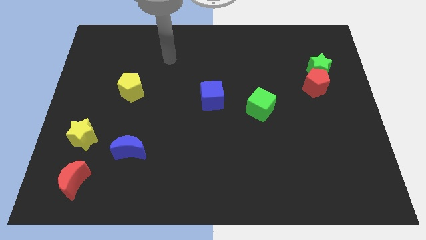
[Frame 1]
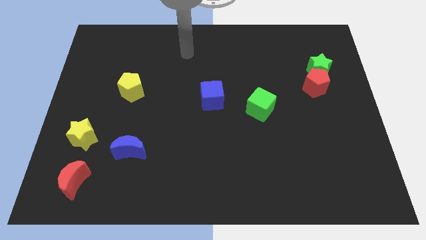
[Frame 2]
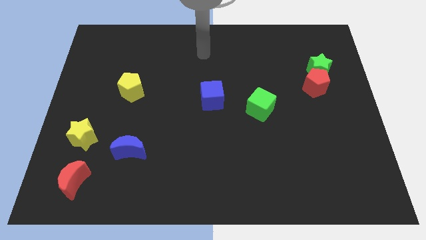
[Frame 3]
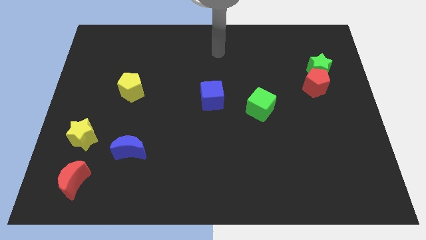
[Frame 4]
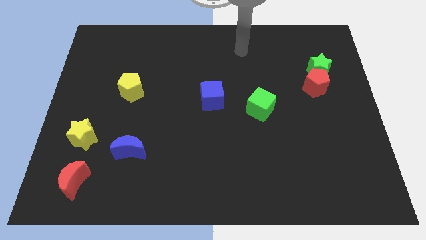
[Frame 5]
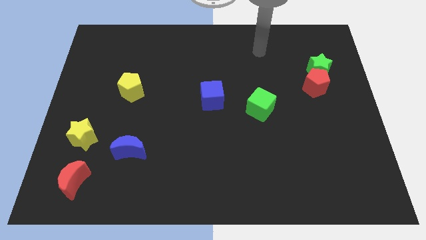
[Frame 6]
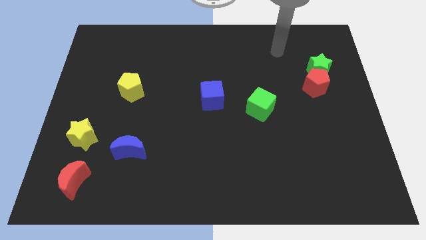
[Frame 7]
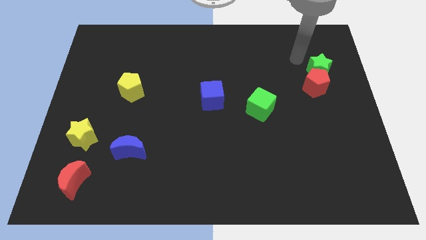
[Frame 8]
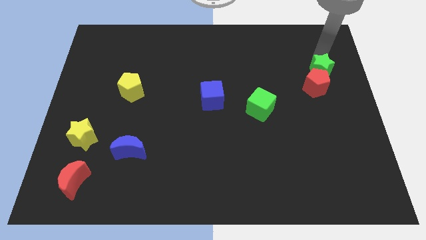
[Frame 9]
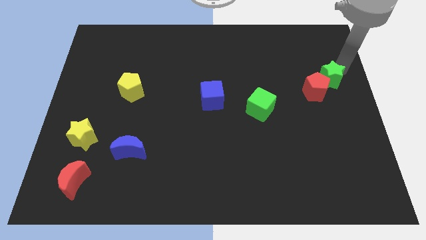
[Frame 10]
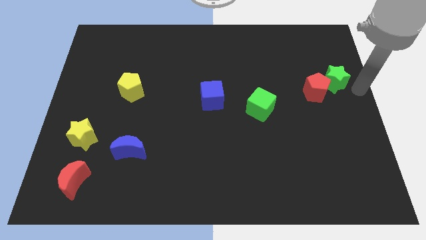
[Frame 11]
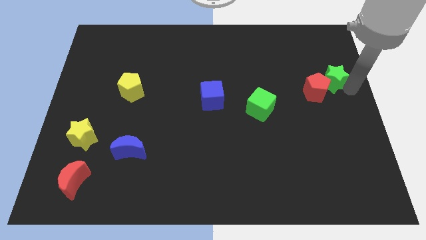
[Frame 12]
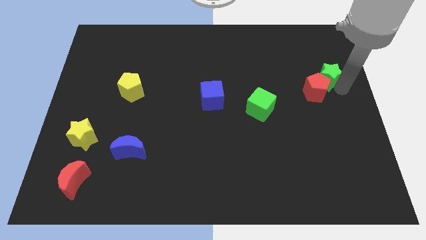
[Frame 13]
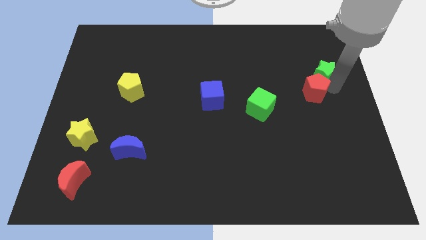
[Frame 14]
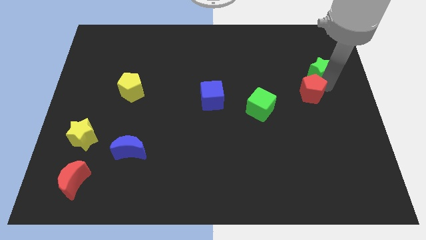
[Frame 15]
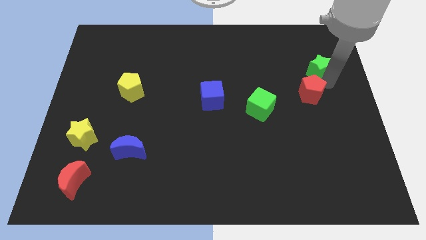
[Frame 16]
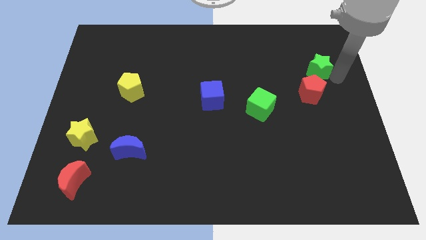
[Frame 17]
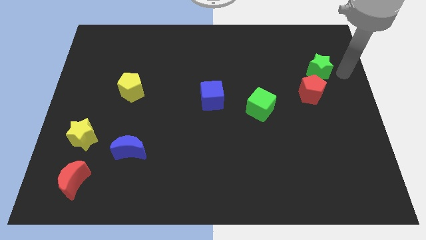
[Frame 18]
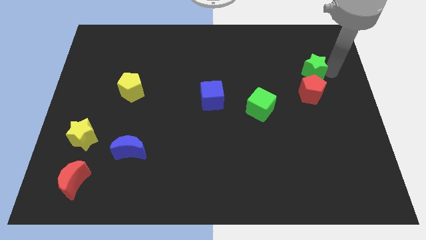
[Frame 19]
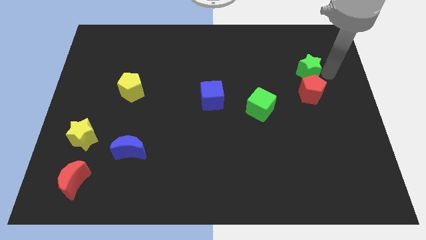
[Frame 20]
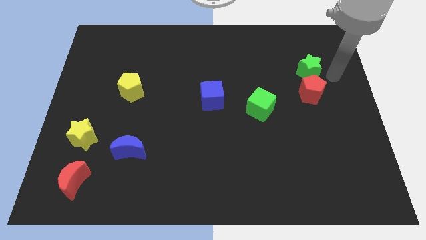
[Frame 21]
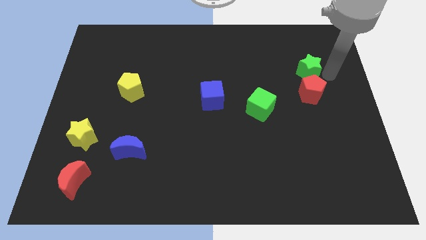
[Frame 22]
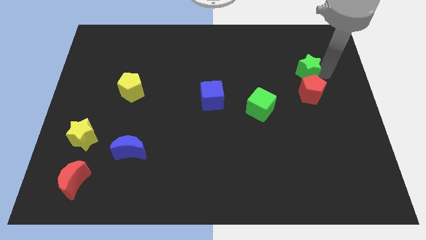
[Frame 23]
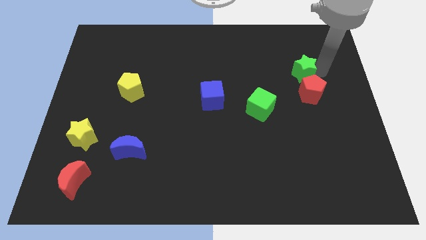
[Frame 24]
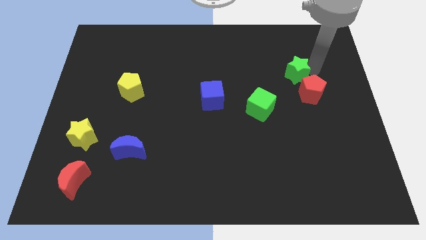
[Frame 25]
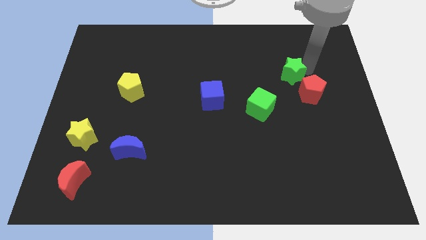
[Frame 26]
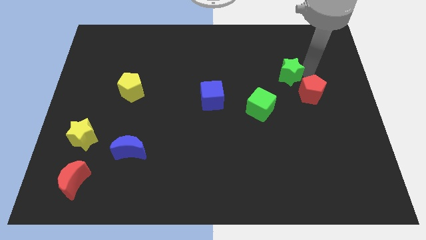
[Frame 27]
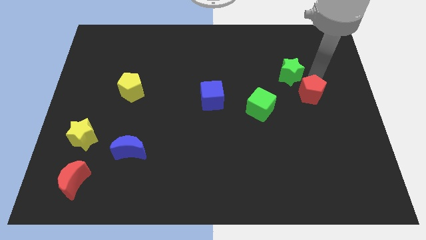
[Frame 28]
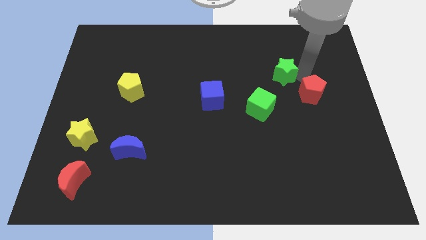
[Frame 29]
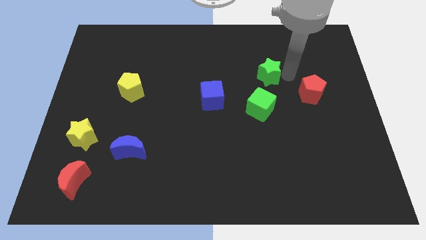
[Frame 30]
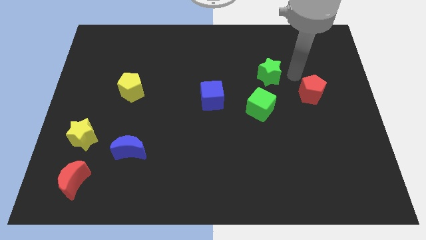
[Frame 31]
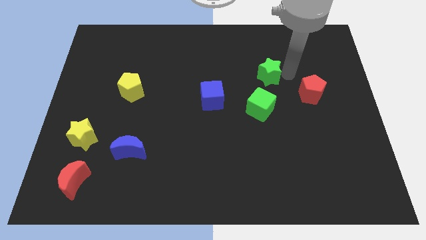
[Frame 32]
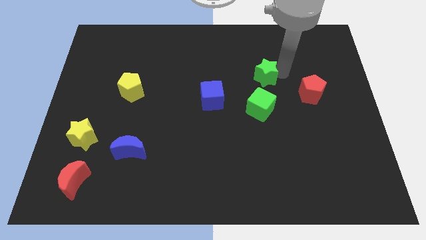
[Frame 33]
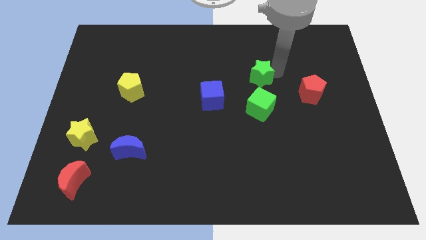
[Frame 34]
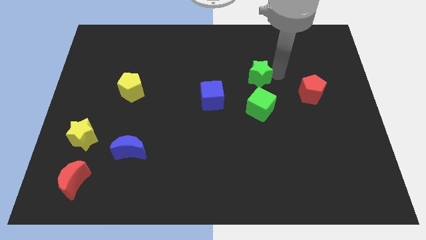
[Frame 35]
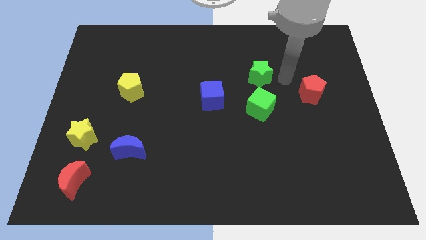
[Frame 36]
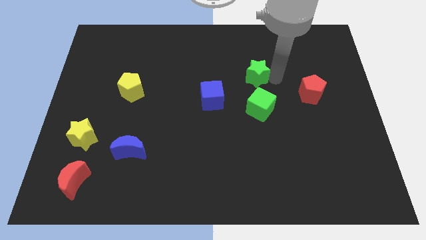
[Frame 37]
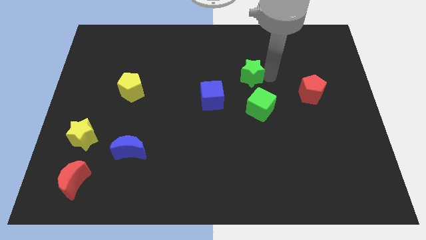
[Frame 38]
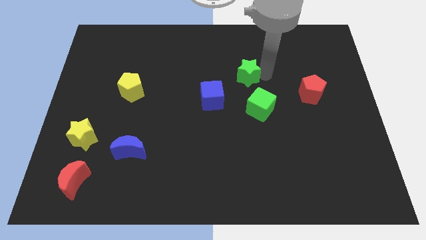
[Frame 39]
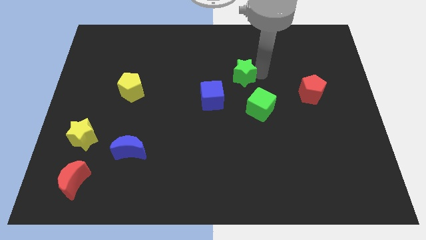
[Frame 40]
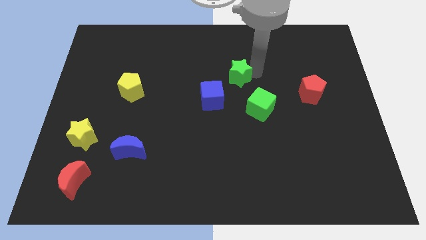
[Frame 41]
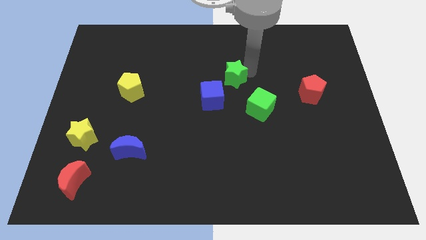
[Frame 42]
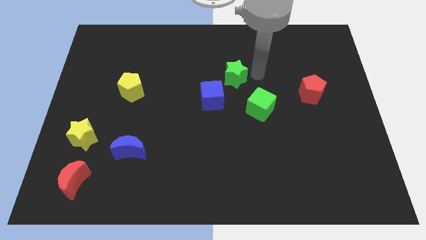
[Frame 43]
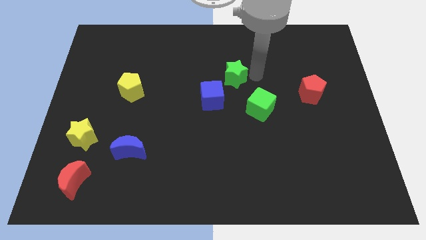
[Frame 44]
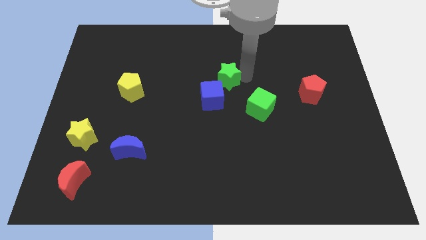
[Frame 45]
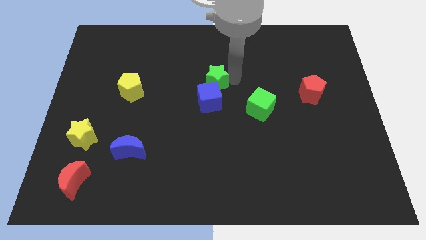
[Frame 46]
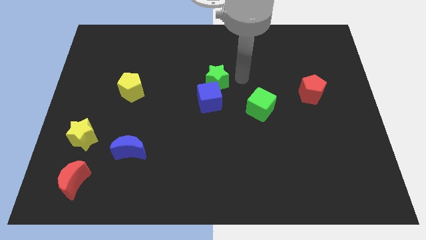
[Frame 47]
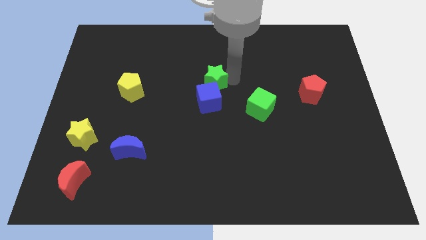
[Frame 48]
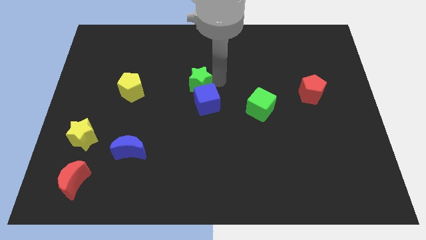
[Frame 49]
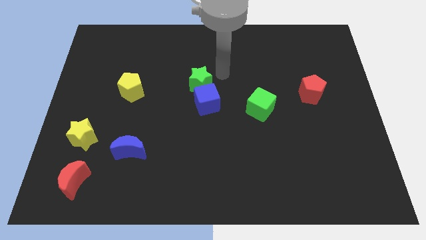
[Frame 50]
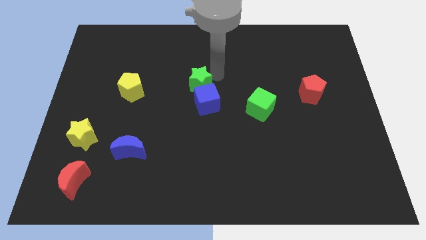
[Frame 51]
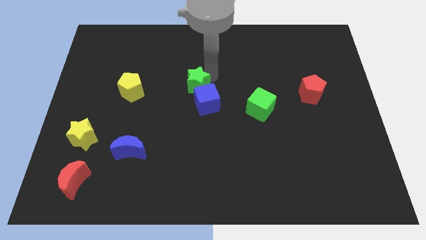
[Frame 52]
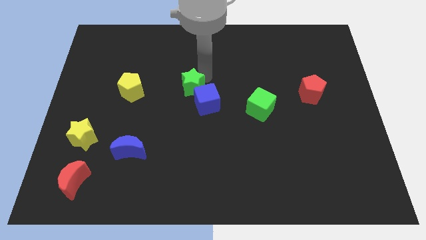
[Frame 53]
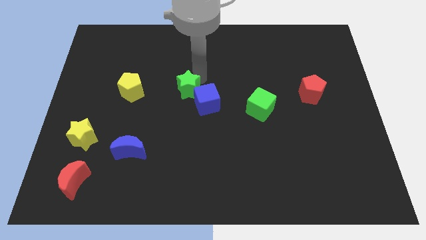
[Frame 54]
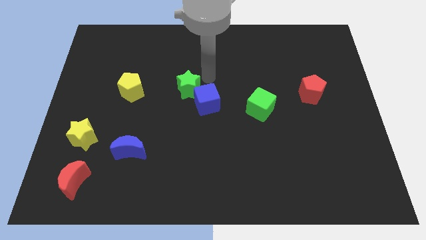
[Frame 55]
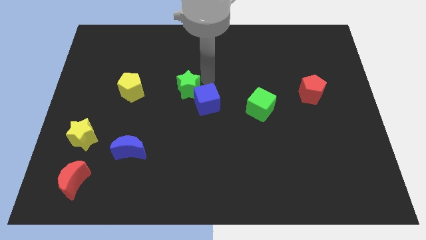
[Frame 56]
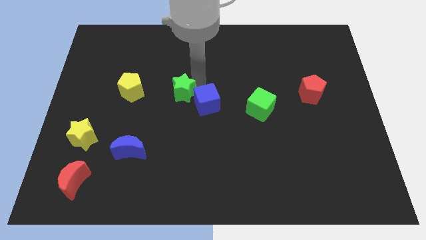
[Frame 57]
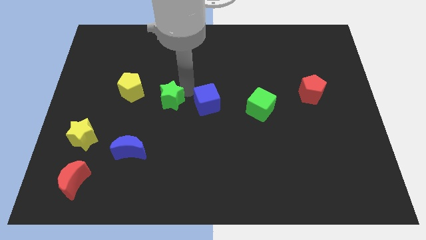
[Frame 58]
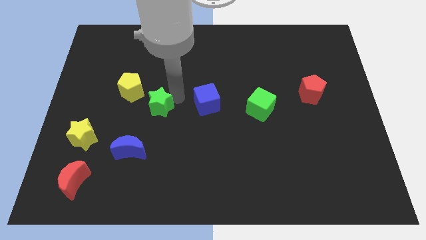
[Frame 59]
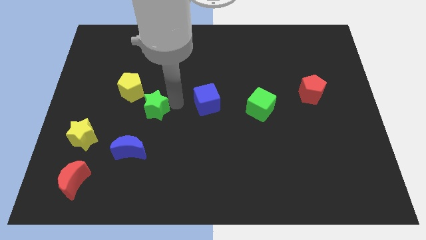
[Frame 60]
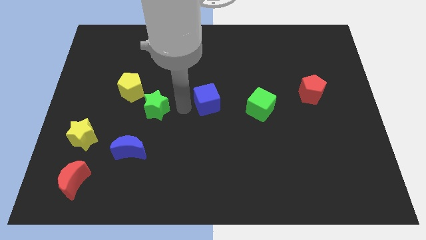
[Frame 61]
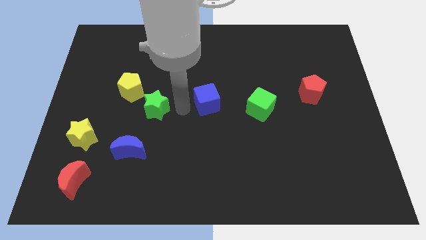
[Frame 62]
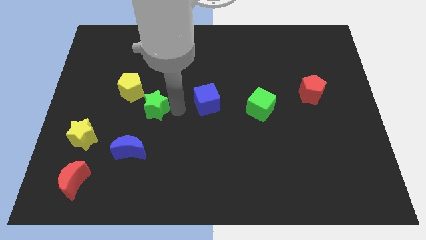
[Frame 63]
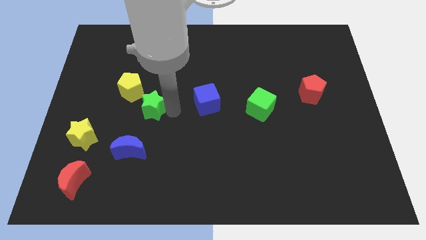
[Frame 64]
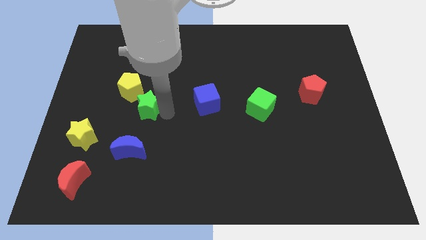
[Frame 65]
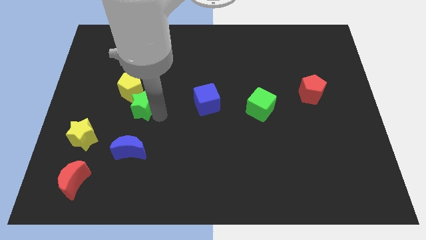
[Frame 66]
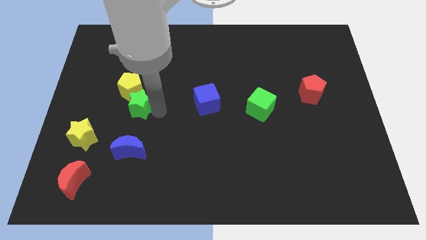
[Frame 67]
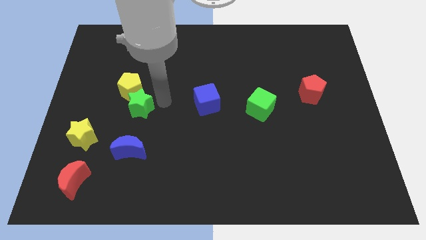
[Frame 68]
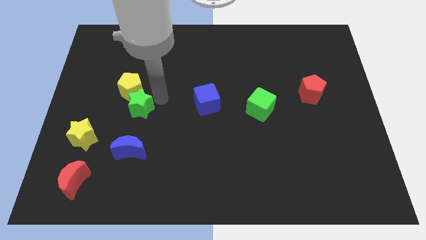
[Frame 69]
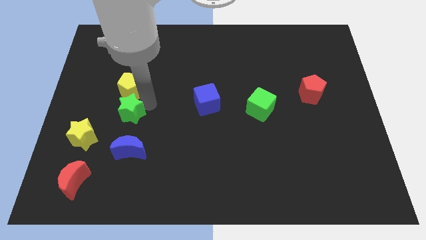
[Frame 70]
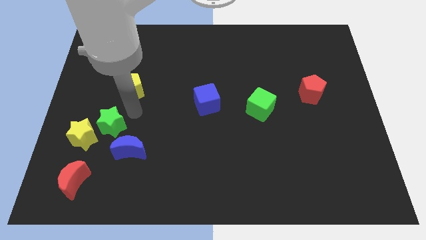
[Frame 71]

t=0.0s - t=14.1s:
move the green star towards the yellow star

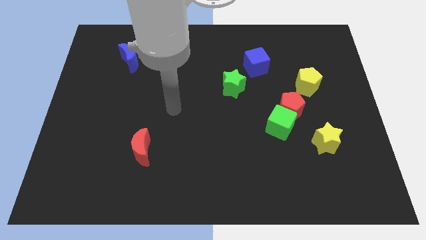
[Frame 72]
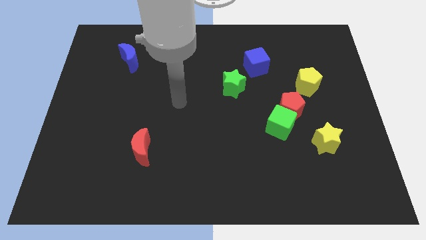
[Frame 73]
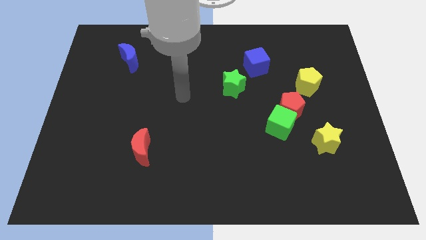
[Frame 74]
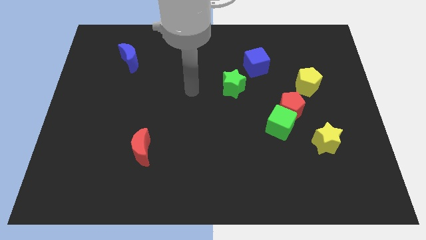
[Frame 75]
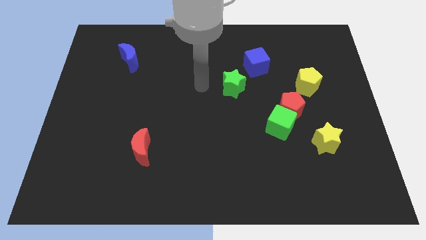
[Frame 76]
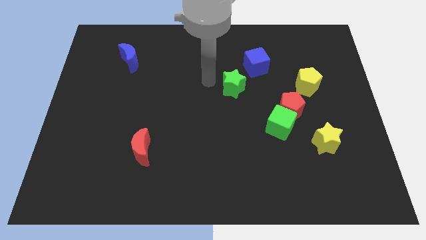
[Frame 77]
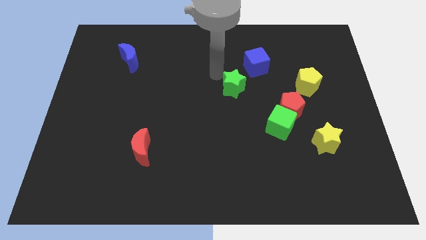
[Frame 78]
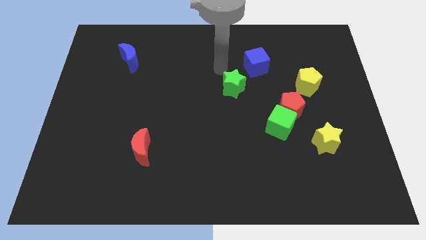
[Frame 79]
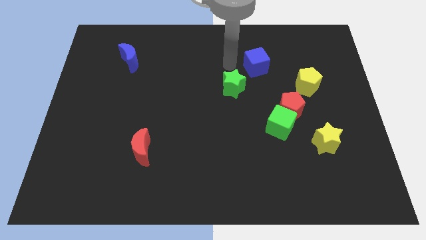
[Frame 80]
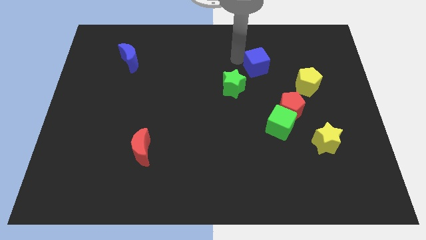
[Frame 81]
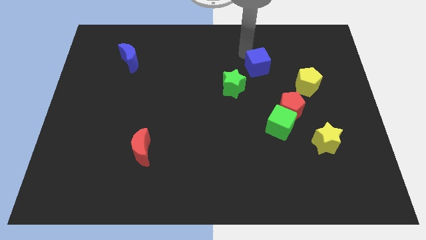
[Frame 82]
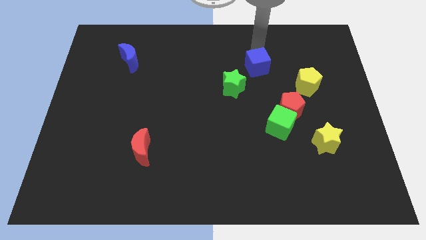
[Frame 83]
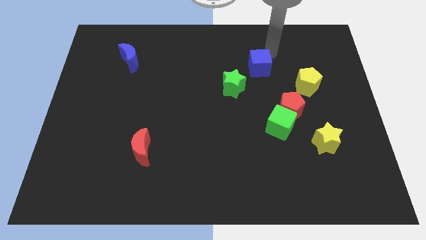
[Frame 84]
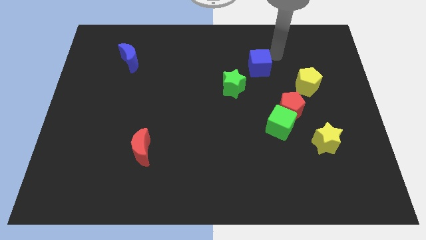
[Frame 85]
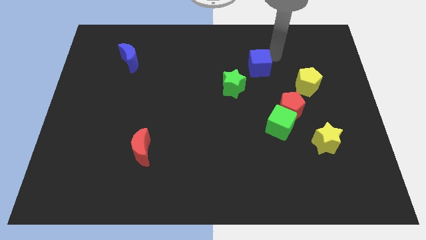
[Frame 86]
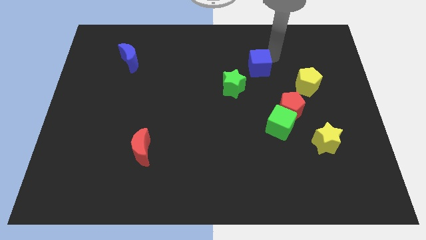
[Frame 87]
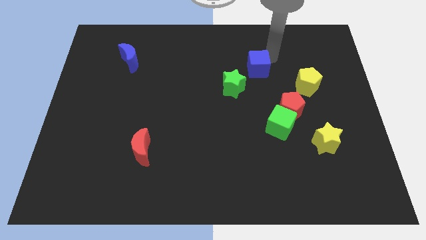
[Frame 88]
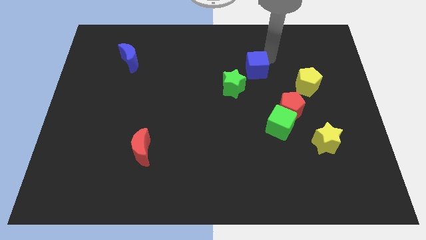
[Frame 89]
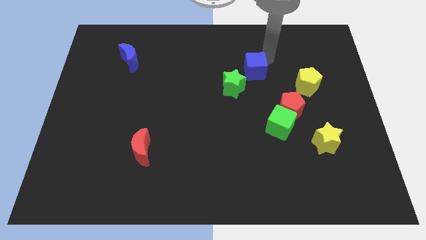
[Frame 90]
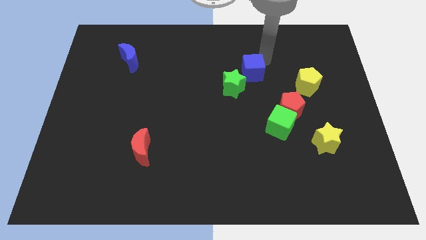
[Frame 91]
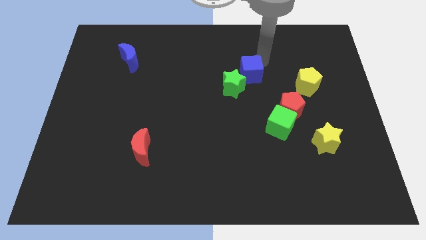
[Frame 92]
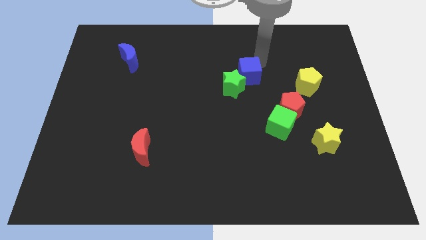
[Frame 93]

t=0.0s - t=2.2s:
move the blue cube next to the green star
